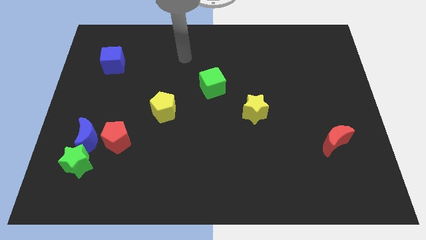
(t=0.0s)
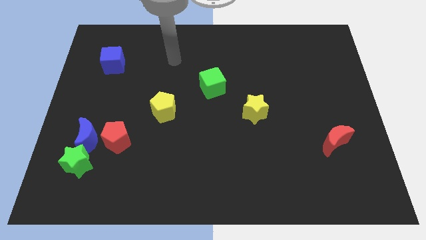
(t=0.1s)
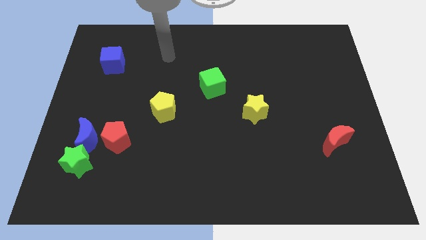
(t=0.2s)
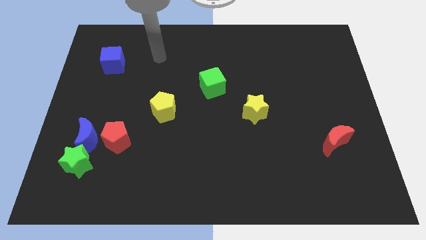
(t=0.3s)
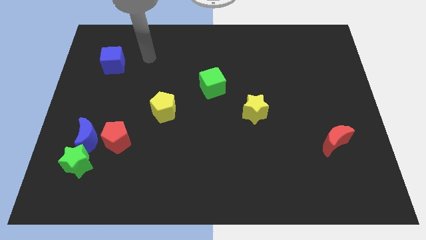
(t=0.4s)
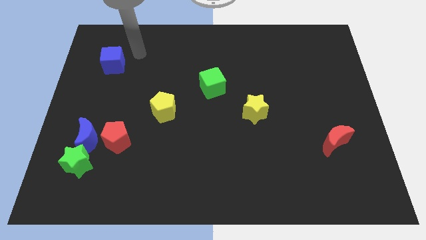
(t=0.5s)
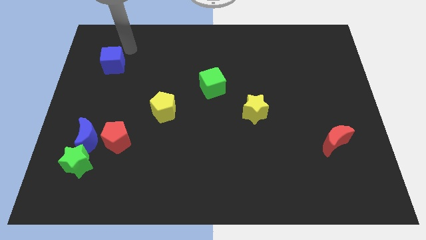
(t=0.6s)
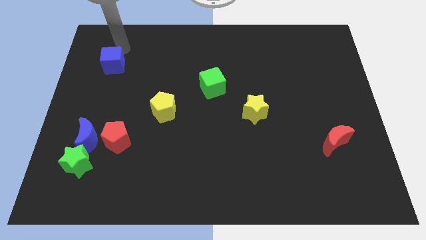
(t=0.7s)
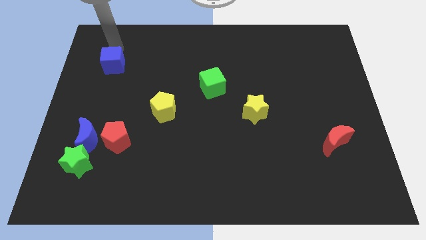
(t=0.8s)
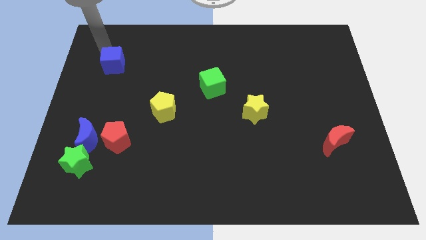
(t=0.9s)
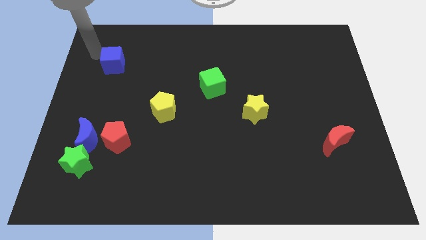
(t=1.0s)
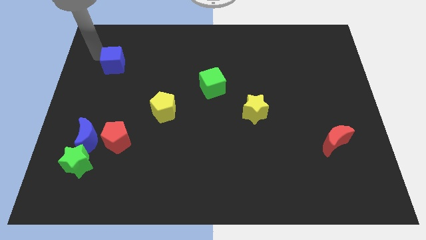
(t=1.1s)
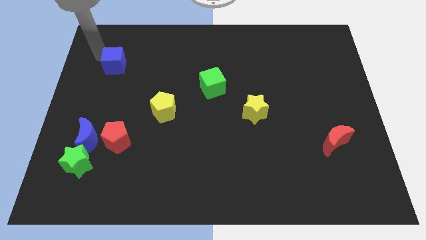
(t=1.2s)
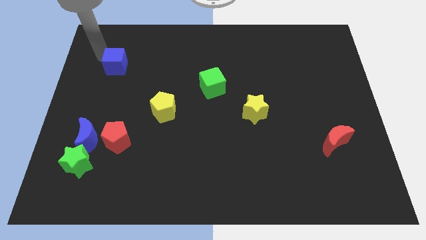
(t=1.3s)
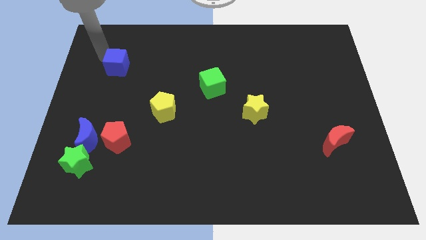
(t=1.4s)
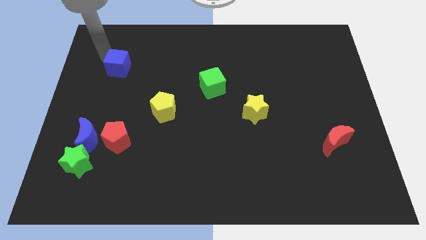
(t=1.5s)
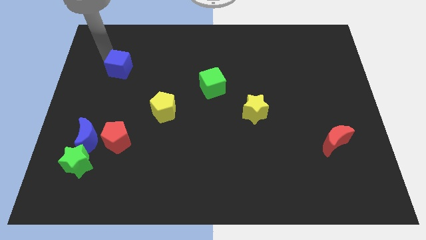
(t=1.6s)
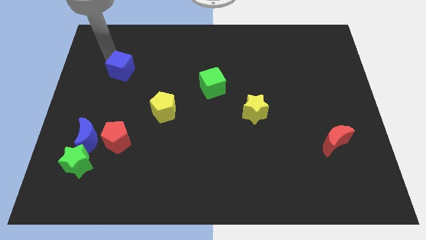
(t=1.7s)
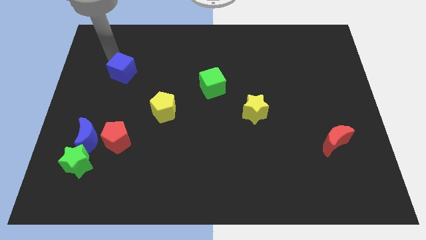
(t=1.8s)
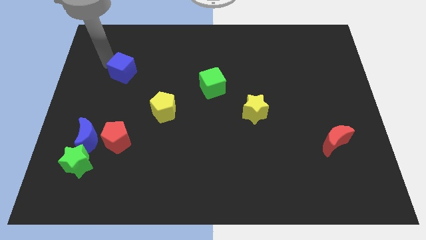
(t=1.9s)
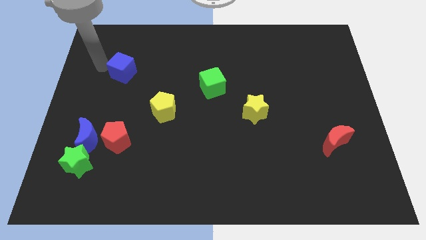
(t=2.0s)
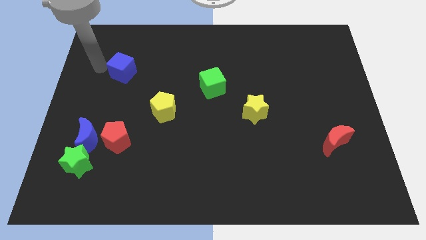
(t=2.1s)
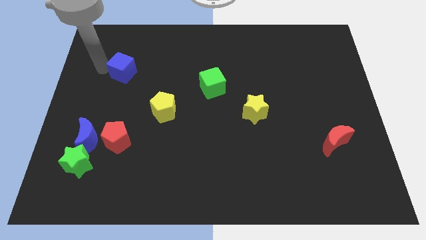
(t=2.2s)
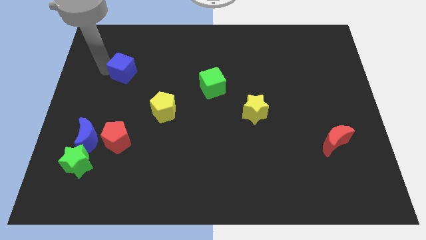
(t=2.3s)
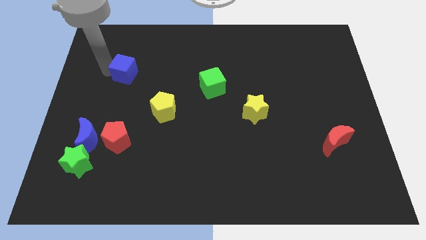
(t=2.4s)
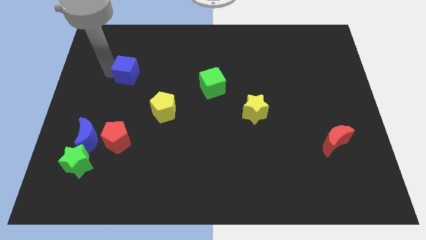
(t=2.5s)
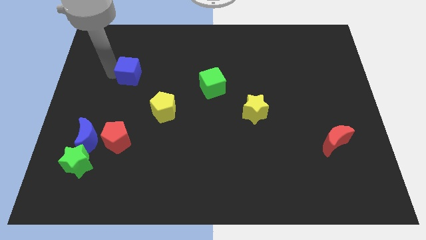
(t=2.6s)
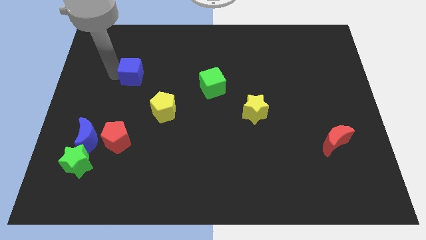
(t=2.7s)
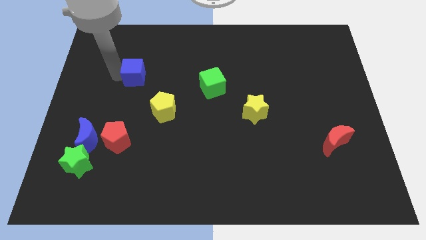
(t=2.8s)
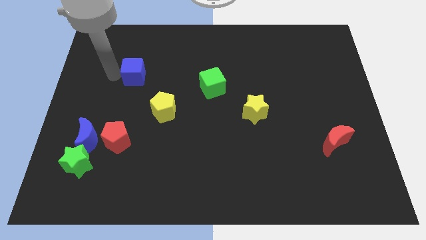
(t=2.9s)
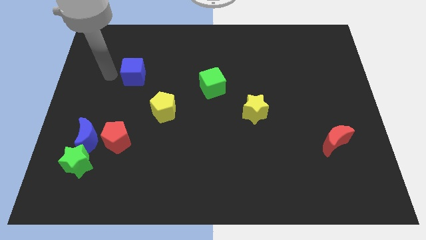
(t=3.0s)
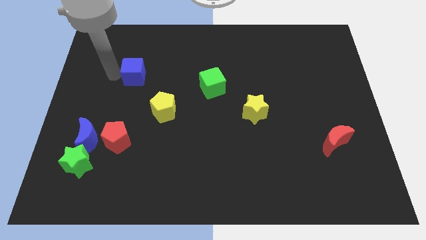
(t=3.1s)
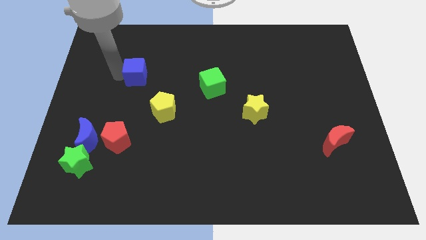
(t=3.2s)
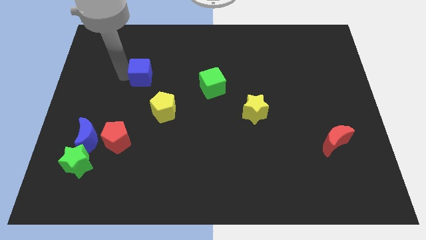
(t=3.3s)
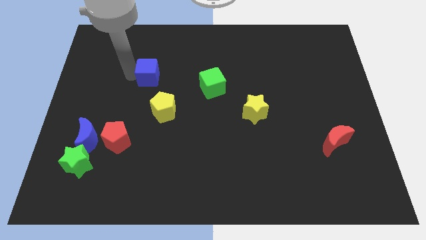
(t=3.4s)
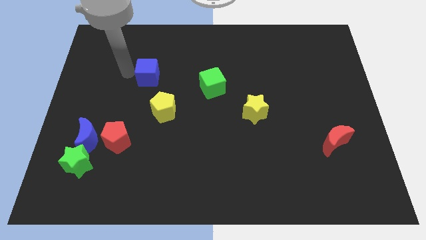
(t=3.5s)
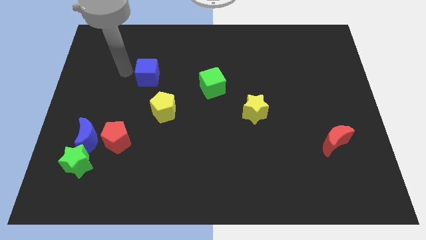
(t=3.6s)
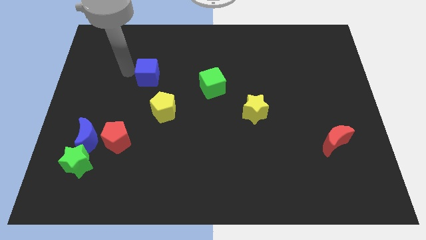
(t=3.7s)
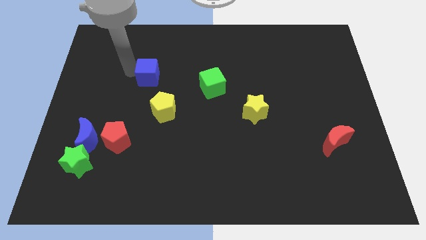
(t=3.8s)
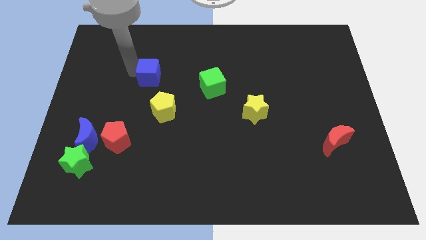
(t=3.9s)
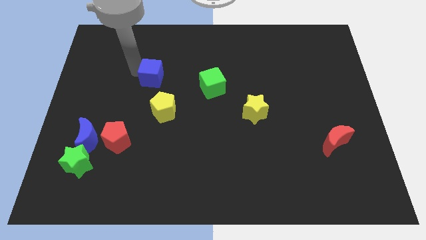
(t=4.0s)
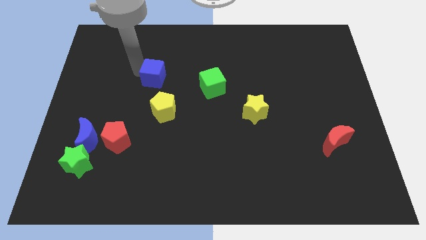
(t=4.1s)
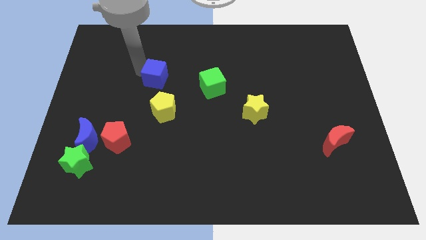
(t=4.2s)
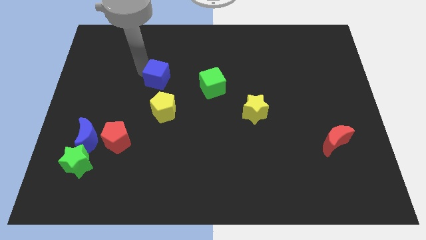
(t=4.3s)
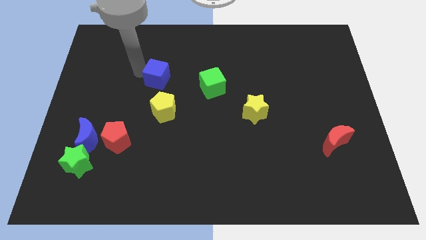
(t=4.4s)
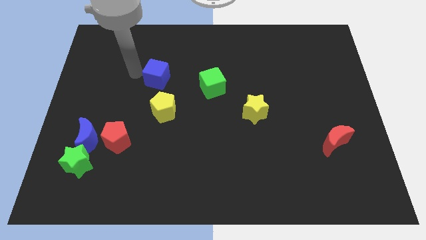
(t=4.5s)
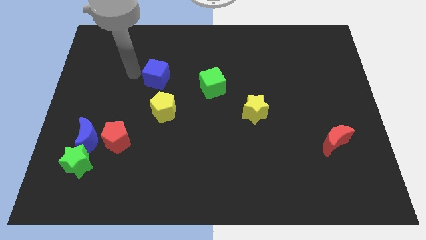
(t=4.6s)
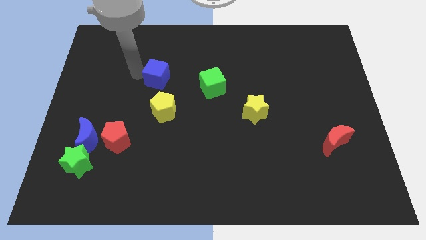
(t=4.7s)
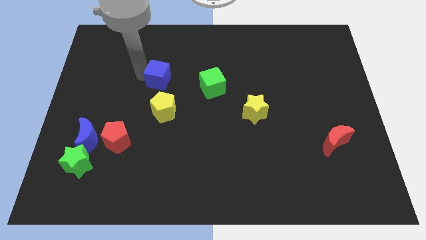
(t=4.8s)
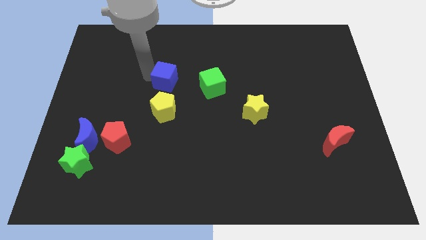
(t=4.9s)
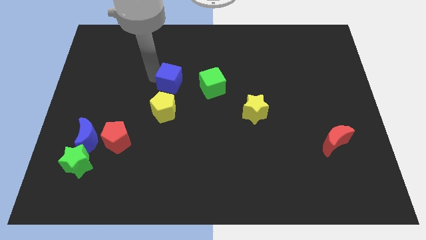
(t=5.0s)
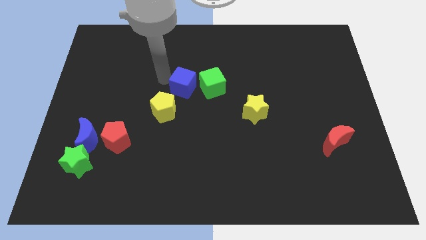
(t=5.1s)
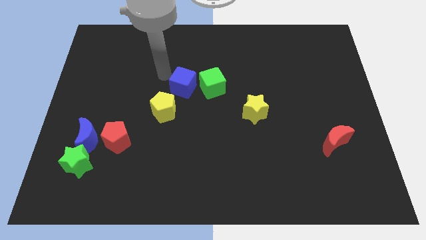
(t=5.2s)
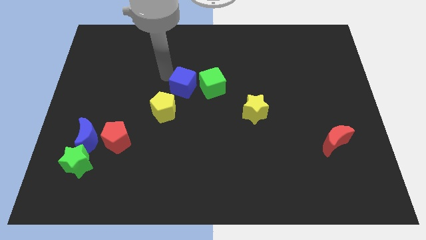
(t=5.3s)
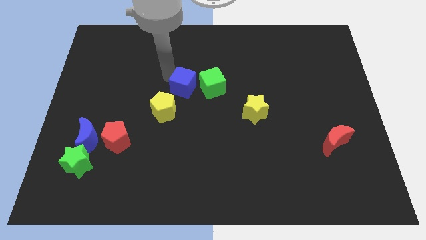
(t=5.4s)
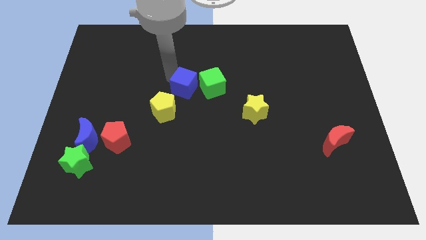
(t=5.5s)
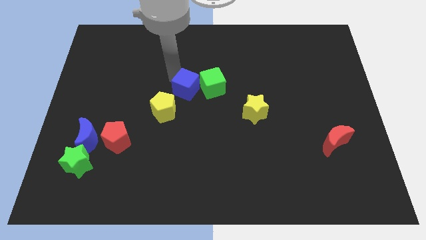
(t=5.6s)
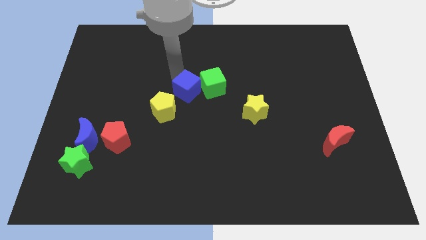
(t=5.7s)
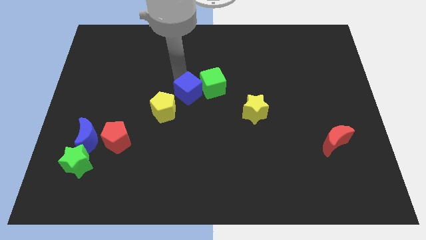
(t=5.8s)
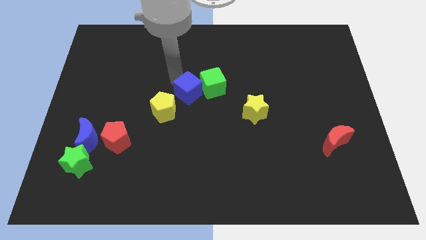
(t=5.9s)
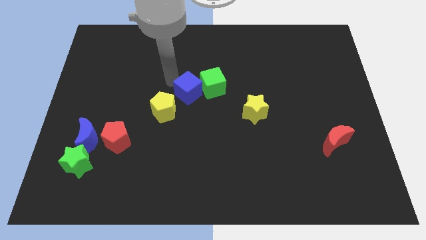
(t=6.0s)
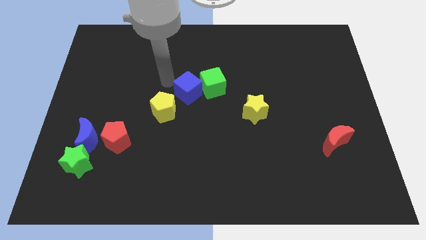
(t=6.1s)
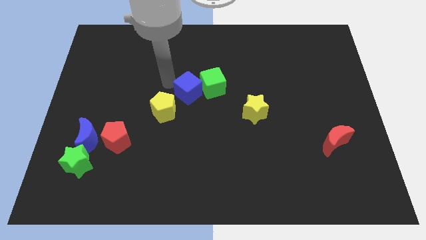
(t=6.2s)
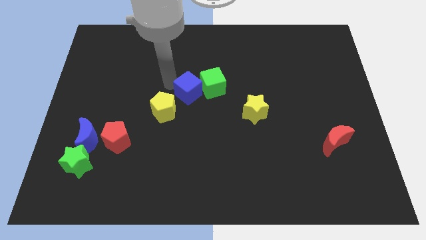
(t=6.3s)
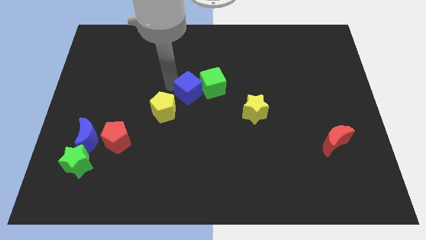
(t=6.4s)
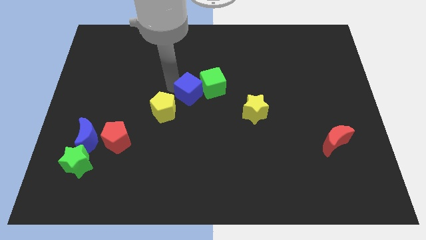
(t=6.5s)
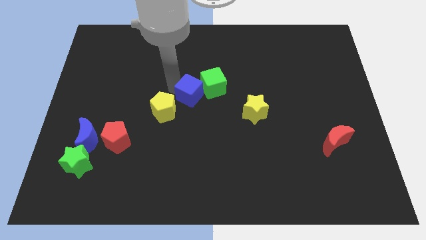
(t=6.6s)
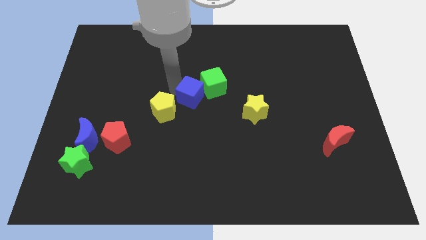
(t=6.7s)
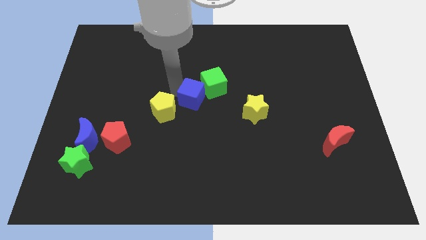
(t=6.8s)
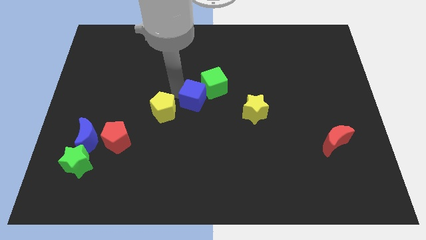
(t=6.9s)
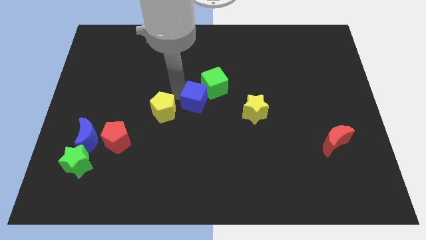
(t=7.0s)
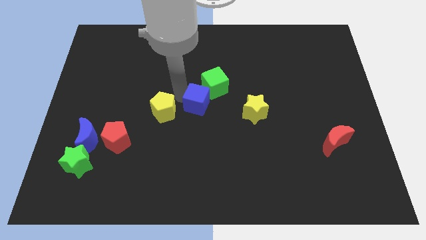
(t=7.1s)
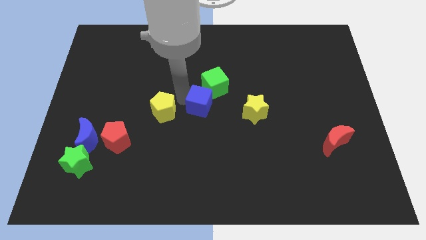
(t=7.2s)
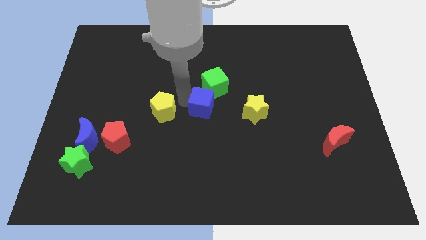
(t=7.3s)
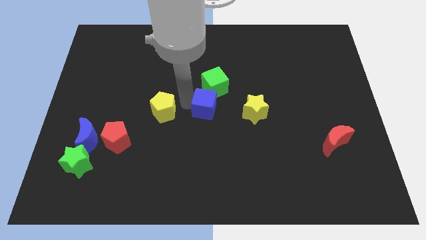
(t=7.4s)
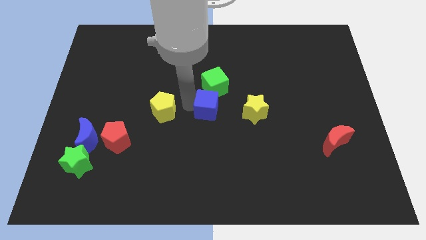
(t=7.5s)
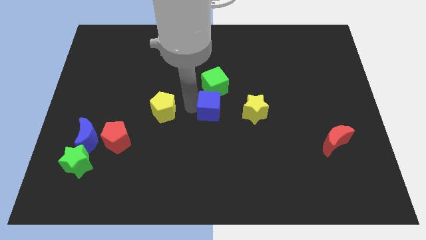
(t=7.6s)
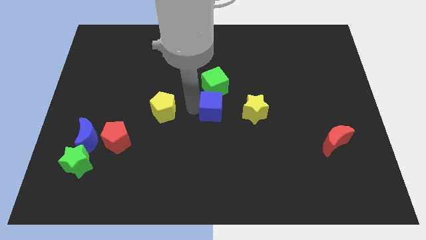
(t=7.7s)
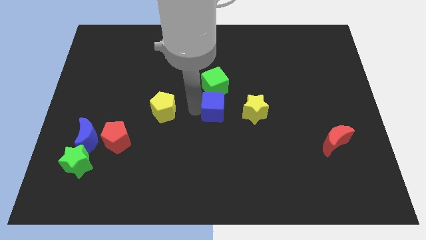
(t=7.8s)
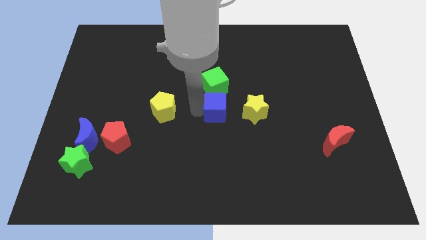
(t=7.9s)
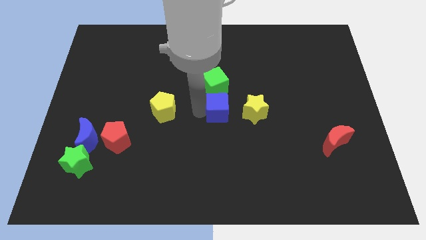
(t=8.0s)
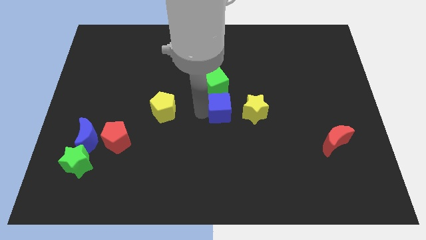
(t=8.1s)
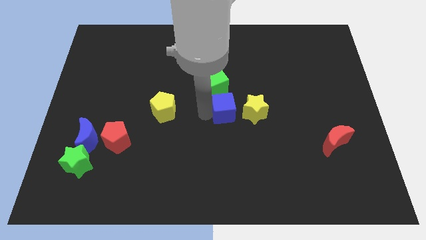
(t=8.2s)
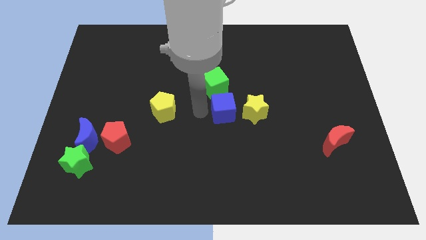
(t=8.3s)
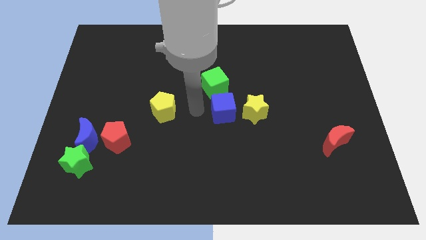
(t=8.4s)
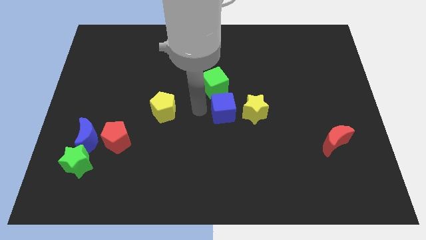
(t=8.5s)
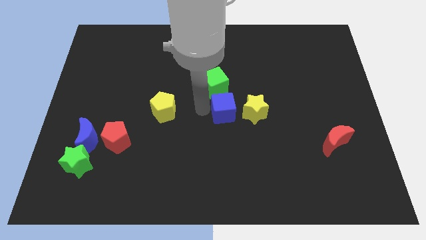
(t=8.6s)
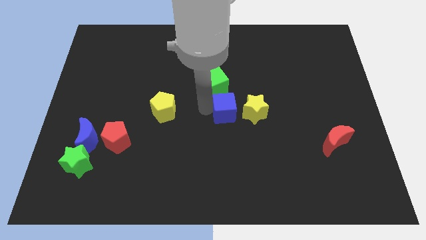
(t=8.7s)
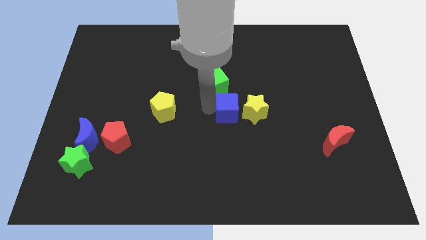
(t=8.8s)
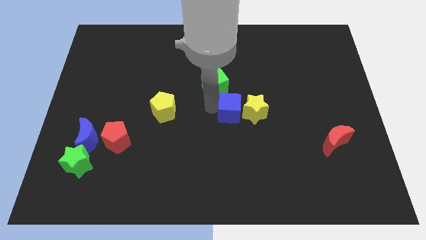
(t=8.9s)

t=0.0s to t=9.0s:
move the blue cube towards the yellow star
